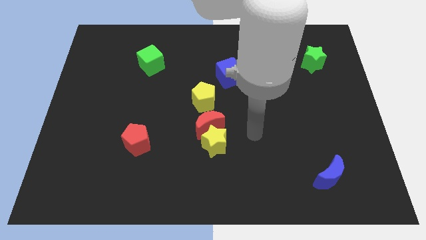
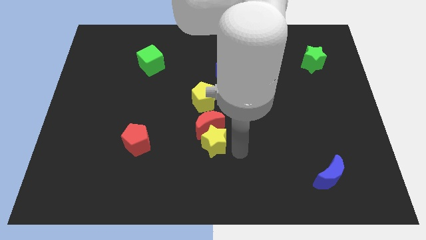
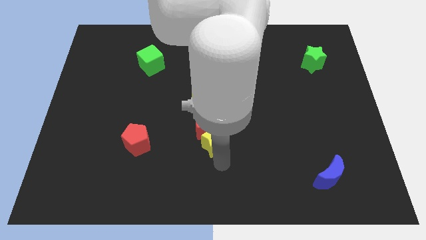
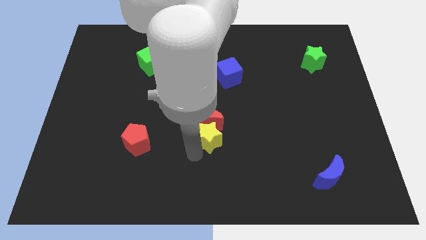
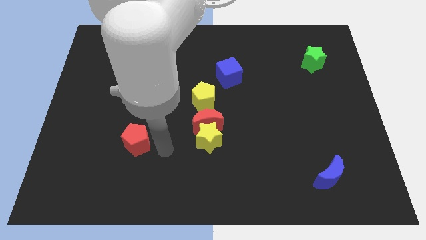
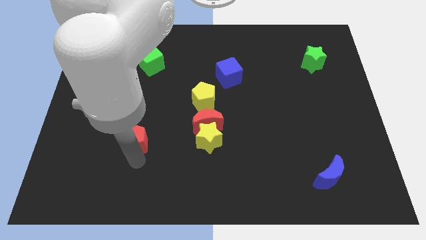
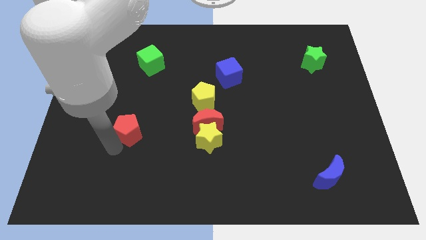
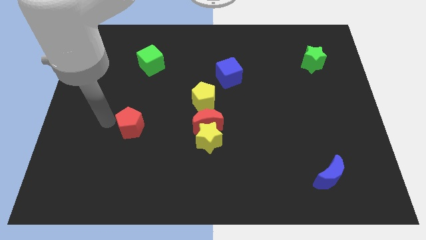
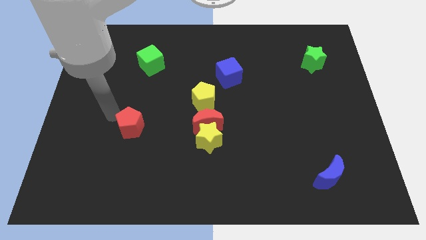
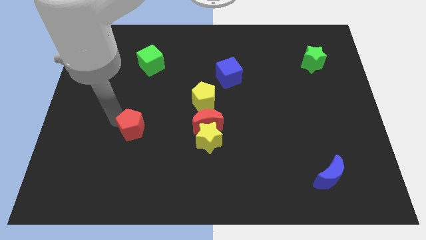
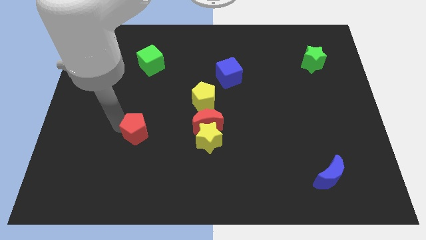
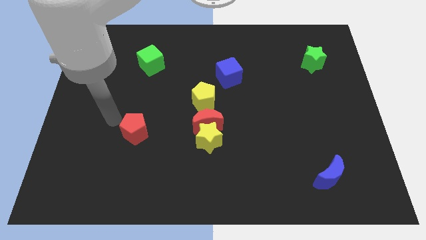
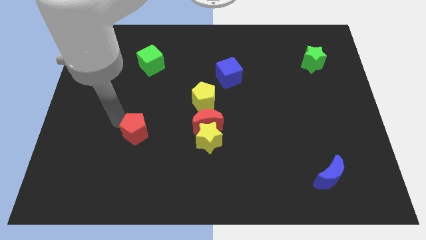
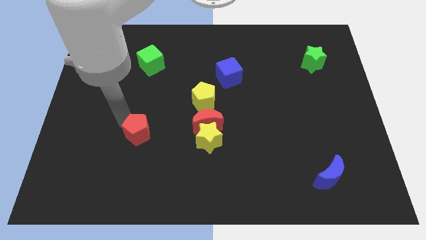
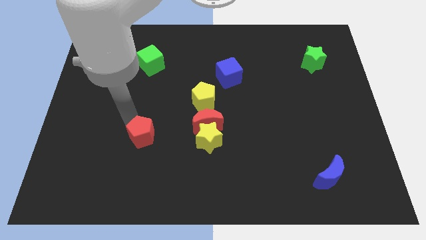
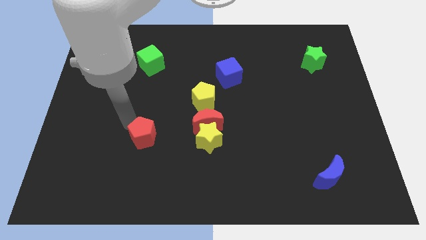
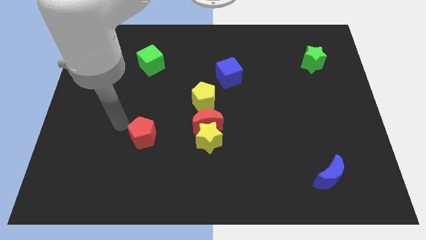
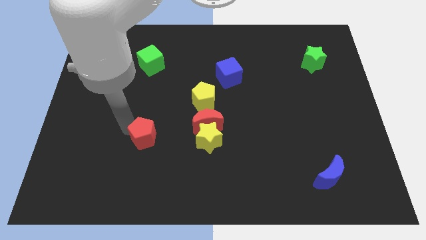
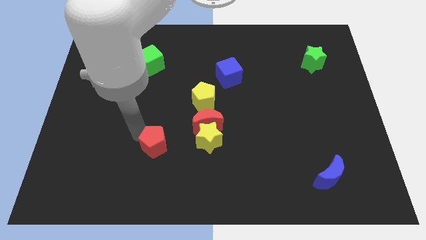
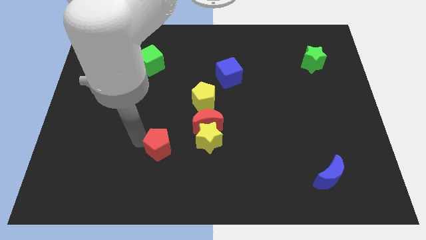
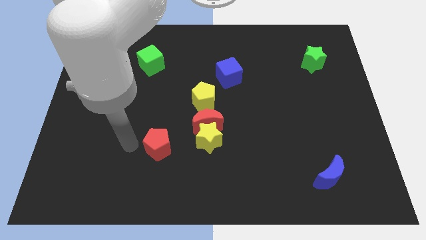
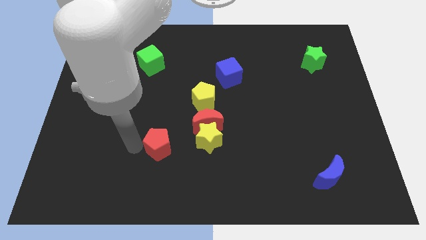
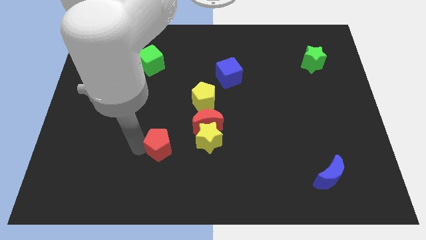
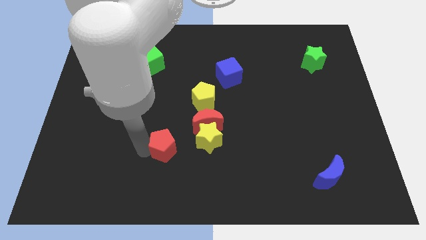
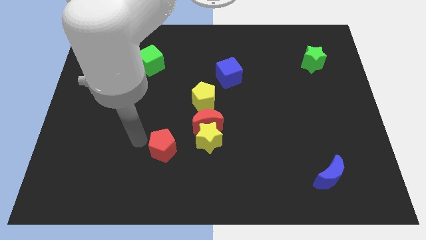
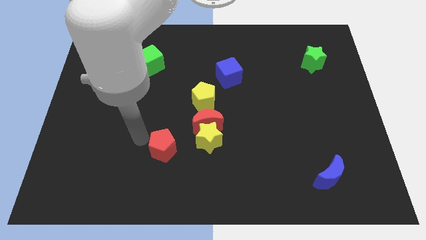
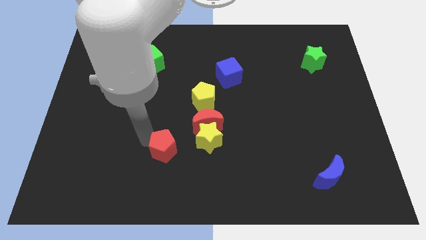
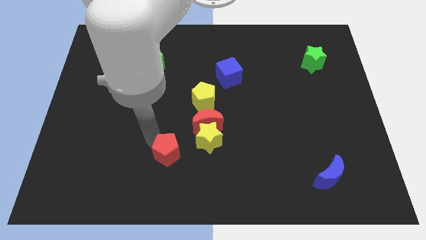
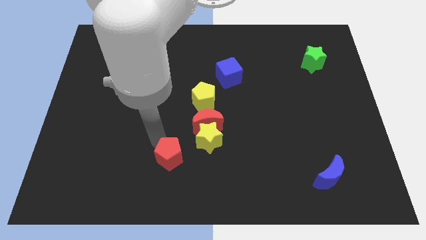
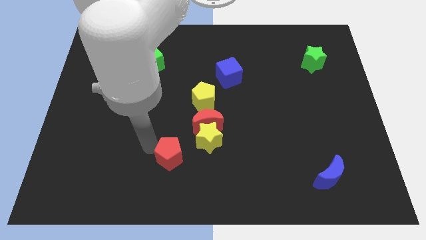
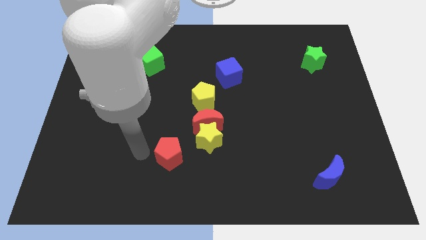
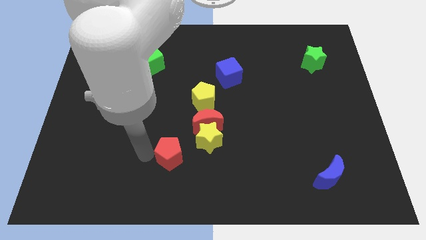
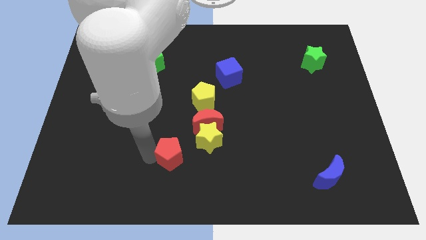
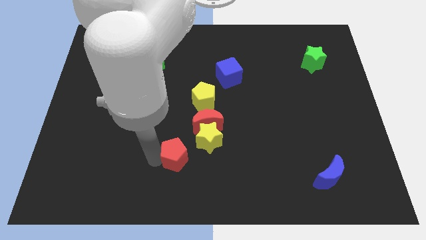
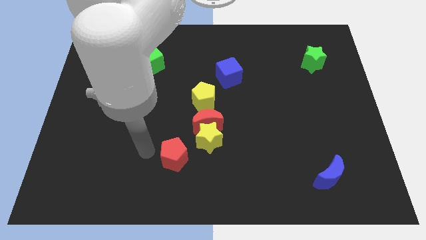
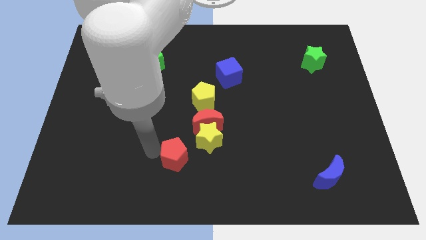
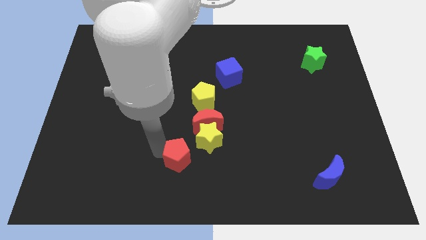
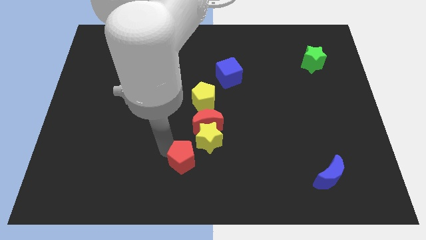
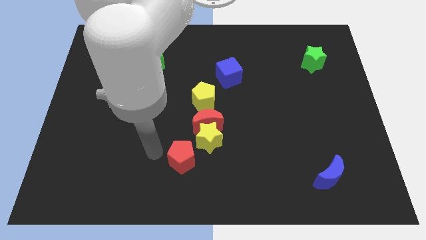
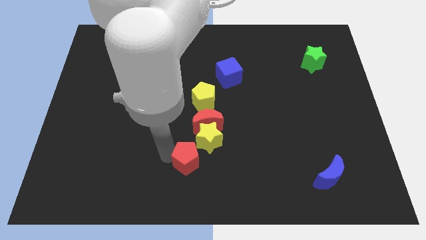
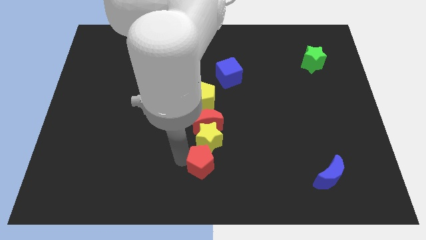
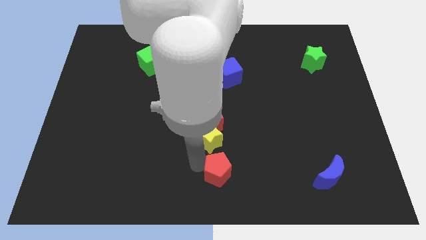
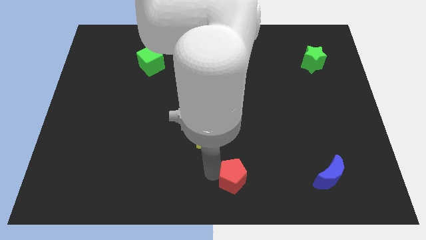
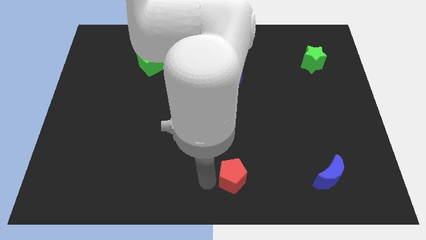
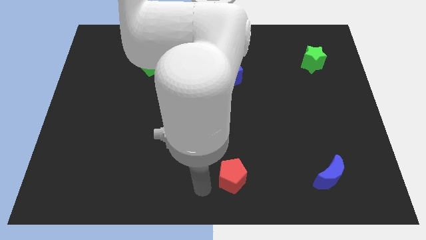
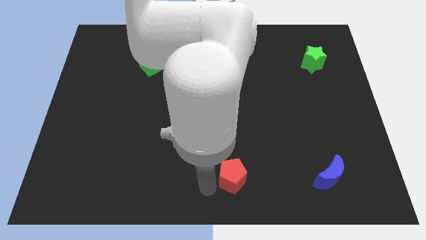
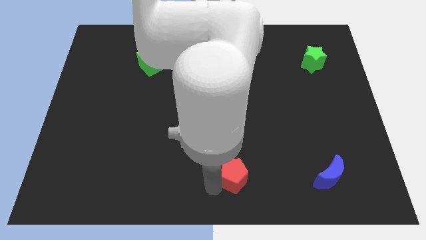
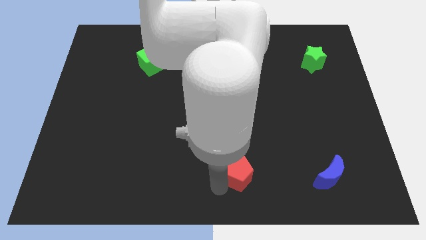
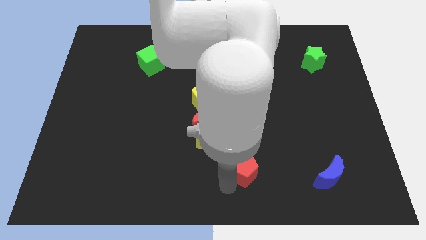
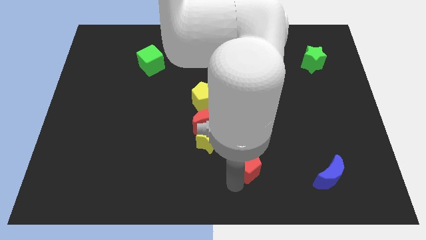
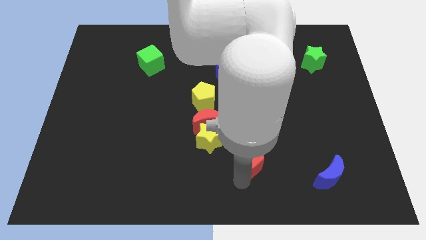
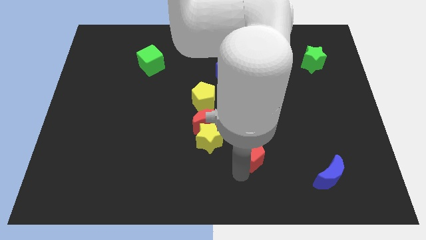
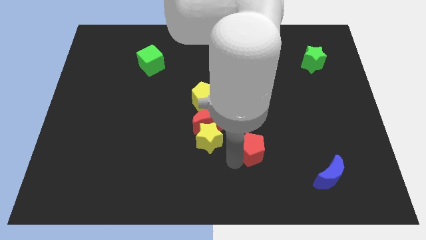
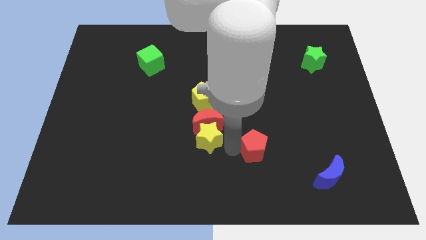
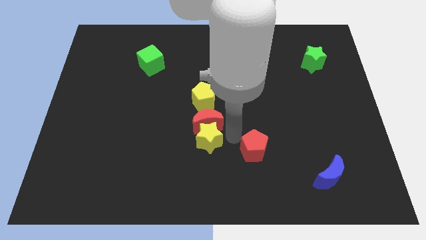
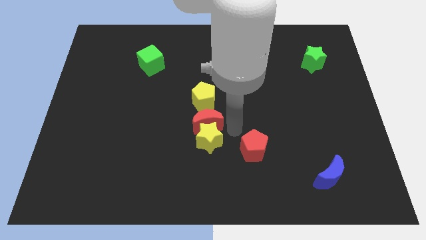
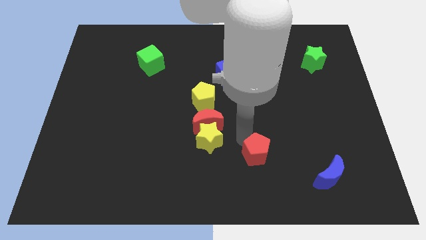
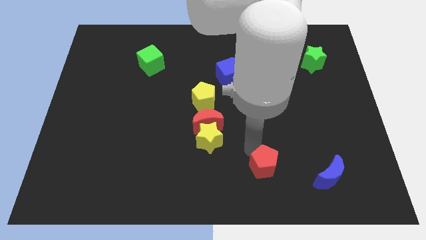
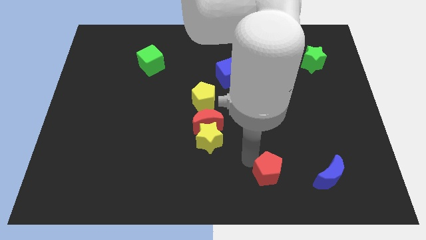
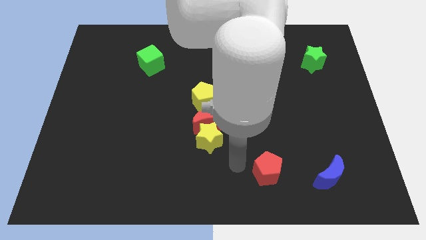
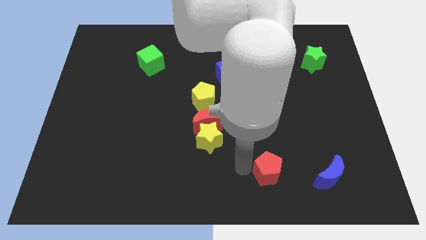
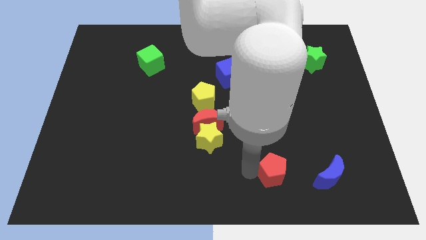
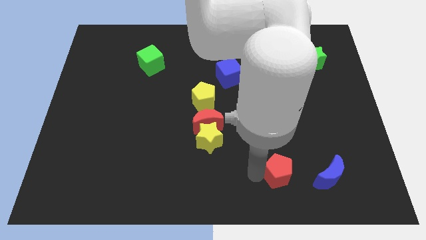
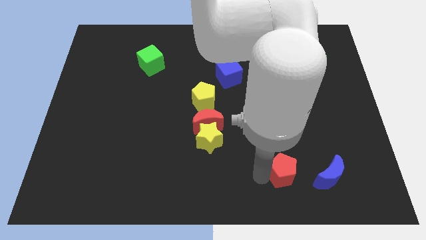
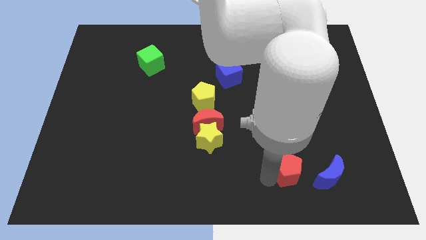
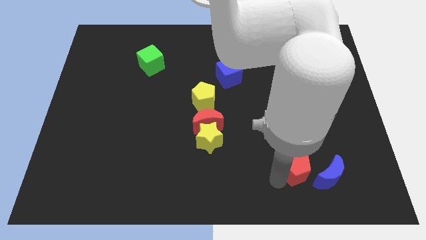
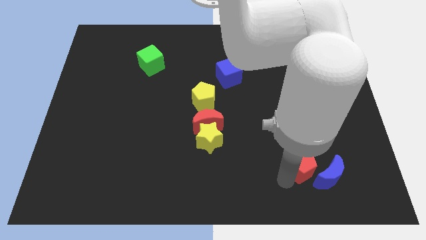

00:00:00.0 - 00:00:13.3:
put the red pentagon next to the blue moon
